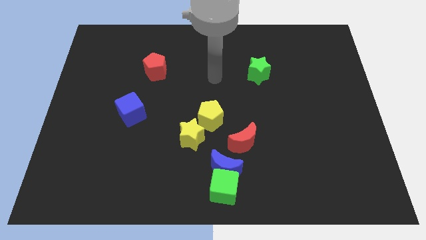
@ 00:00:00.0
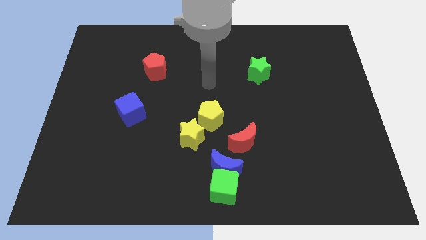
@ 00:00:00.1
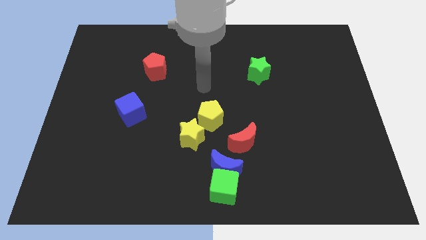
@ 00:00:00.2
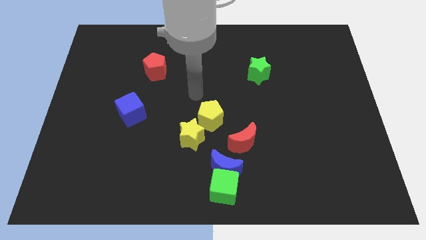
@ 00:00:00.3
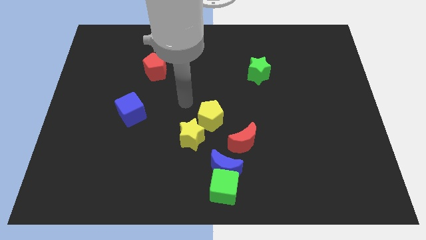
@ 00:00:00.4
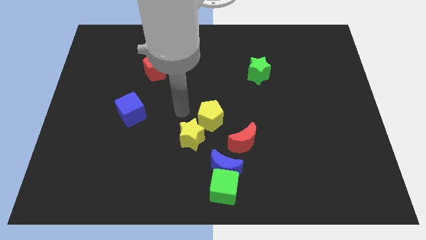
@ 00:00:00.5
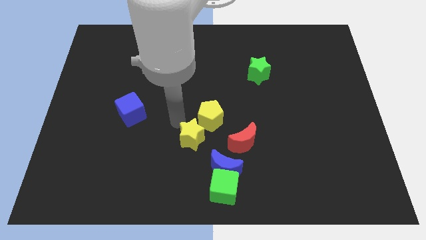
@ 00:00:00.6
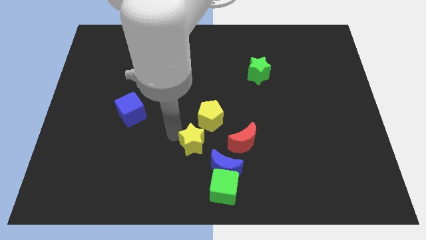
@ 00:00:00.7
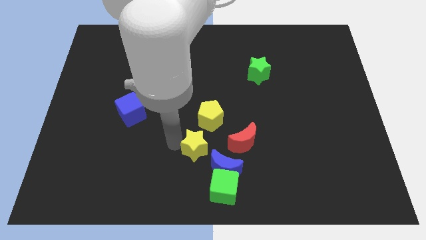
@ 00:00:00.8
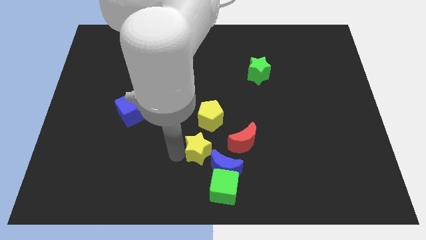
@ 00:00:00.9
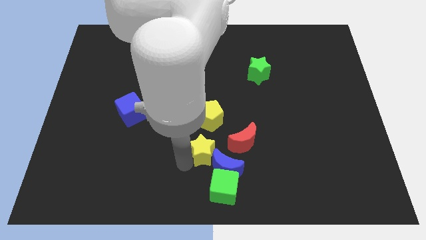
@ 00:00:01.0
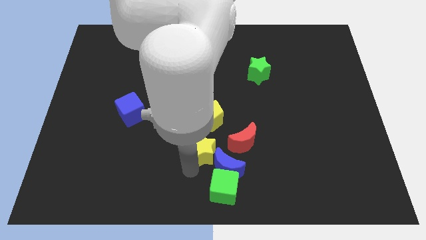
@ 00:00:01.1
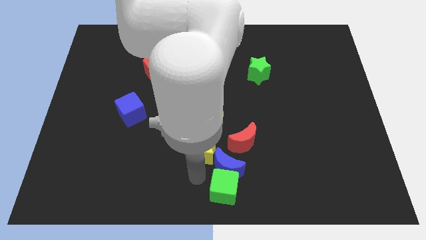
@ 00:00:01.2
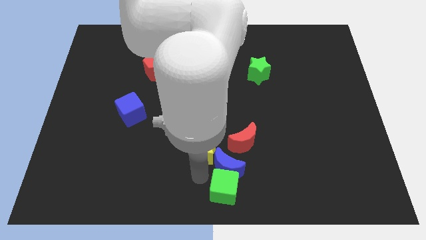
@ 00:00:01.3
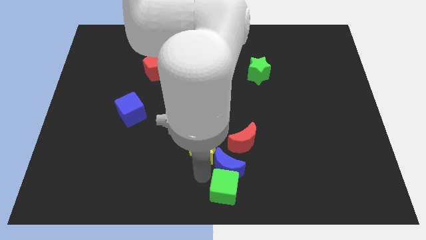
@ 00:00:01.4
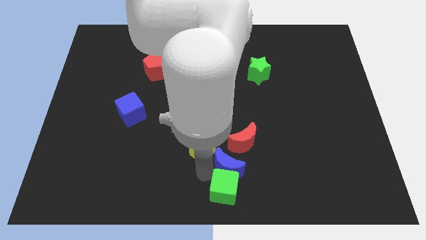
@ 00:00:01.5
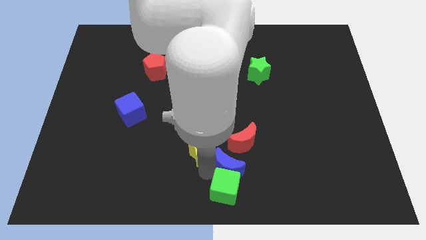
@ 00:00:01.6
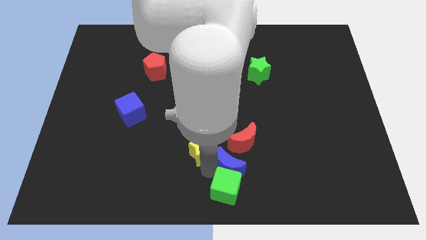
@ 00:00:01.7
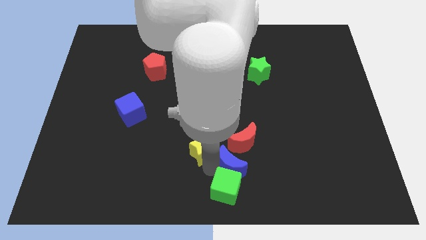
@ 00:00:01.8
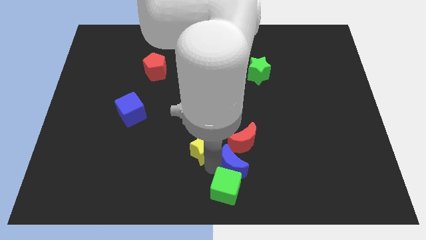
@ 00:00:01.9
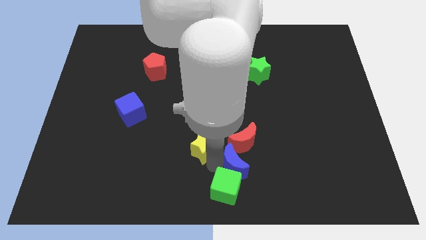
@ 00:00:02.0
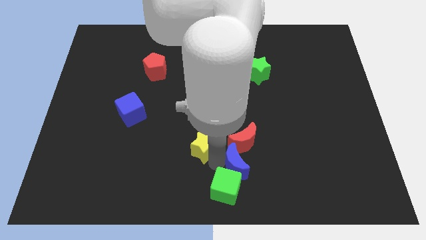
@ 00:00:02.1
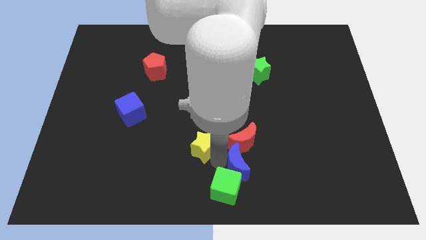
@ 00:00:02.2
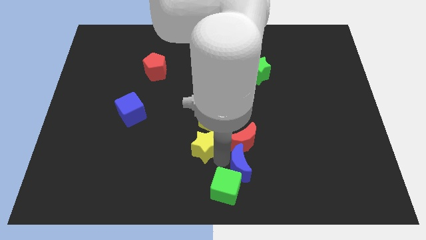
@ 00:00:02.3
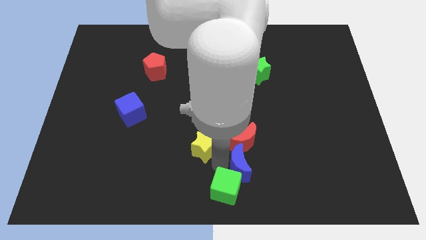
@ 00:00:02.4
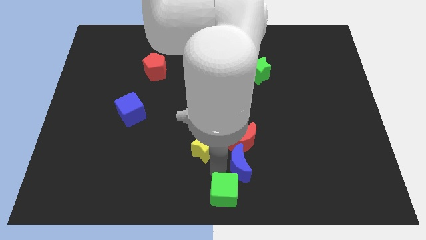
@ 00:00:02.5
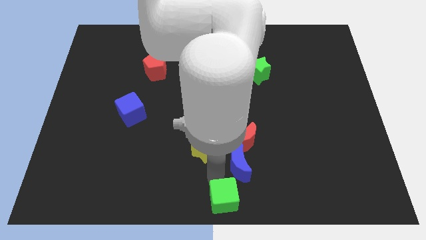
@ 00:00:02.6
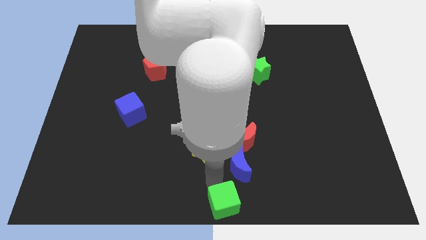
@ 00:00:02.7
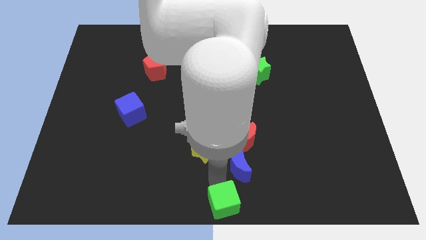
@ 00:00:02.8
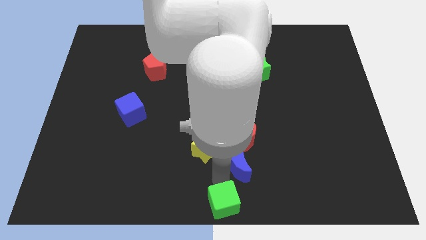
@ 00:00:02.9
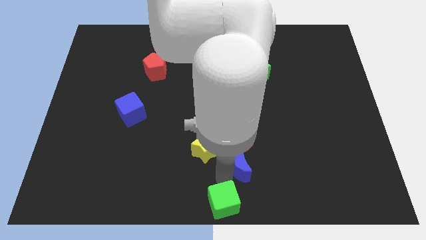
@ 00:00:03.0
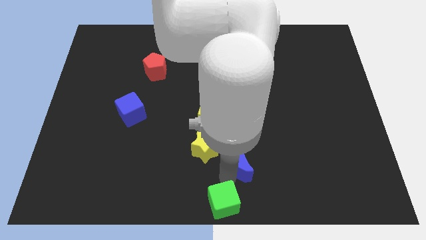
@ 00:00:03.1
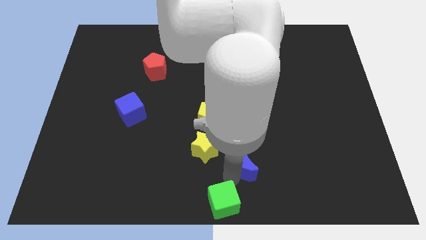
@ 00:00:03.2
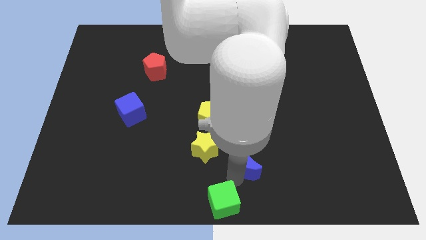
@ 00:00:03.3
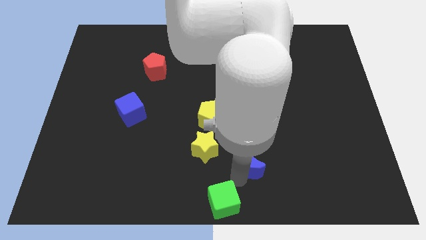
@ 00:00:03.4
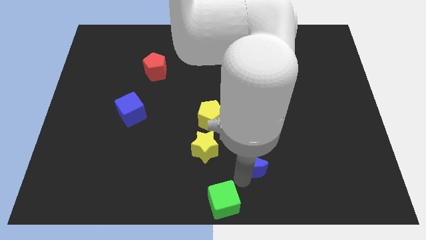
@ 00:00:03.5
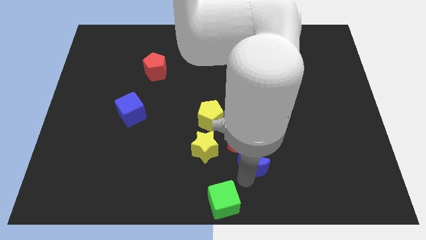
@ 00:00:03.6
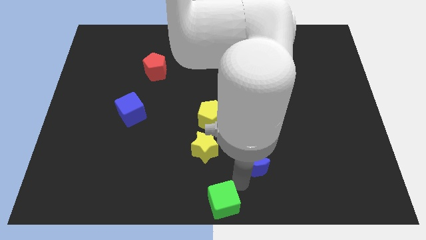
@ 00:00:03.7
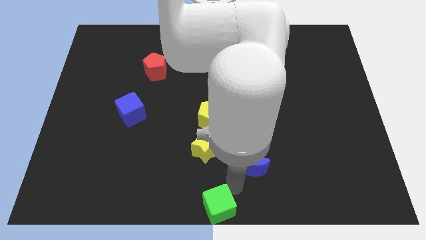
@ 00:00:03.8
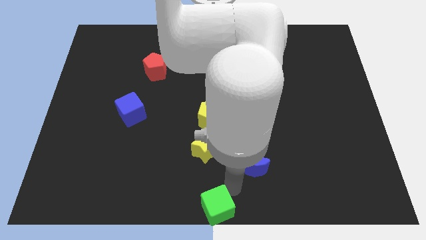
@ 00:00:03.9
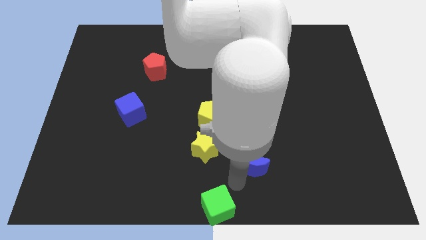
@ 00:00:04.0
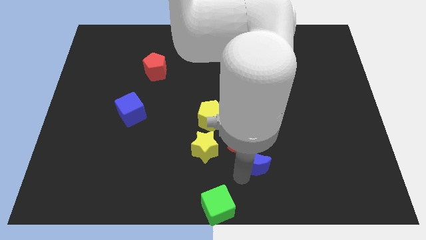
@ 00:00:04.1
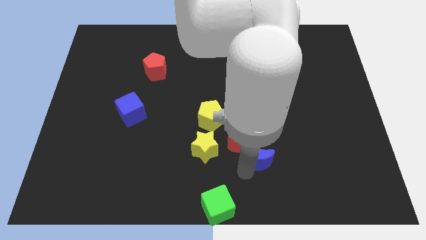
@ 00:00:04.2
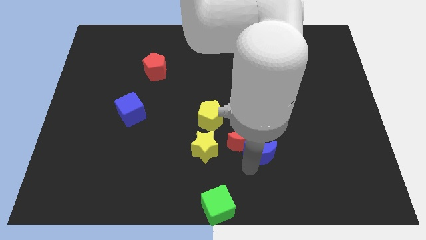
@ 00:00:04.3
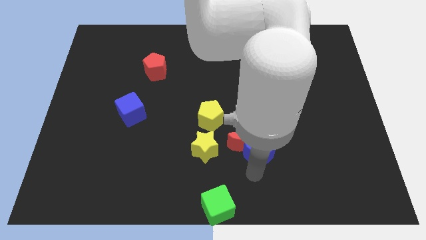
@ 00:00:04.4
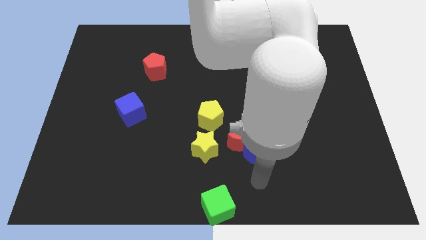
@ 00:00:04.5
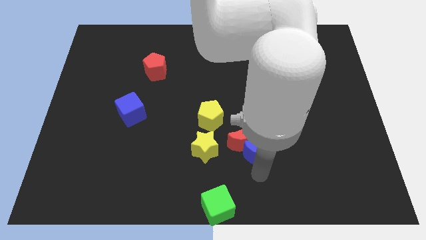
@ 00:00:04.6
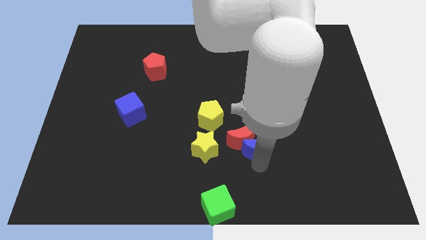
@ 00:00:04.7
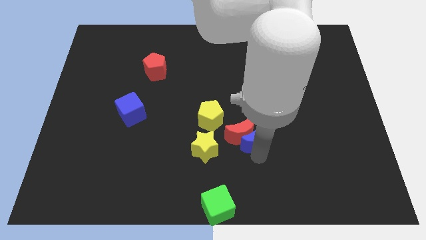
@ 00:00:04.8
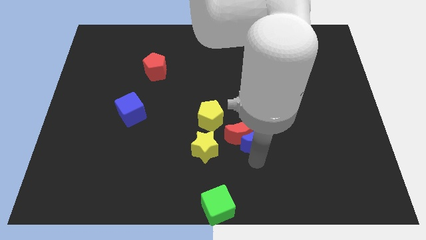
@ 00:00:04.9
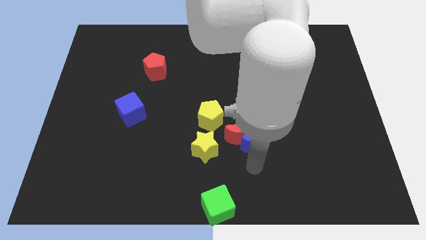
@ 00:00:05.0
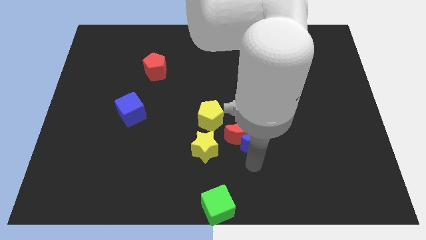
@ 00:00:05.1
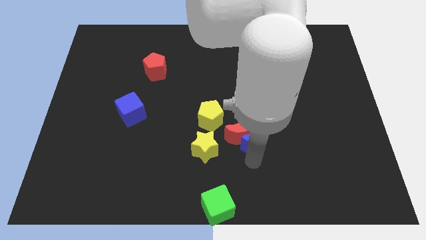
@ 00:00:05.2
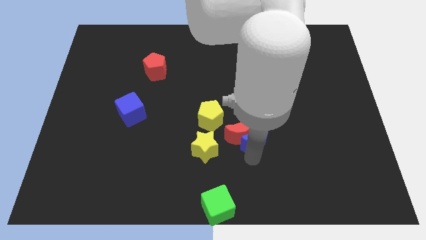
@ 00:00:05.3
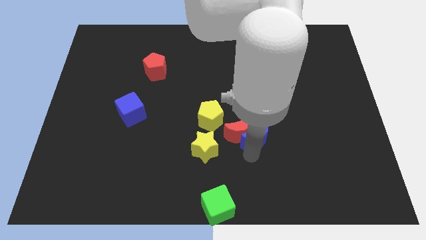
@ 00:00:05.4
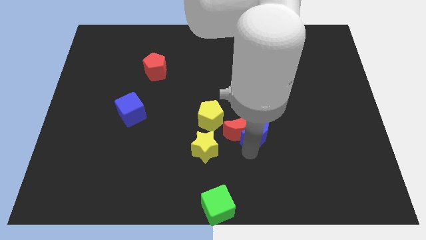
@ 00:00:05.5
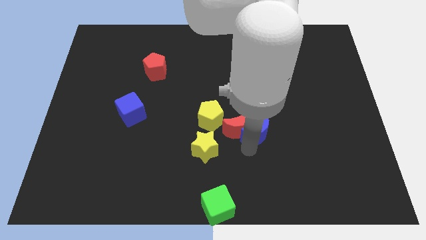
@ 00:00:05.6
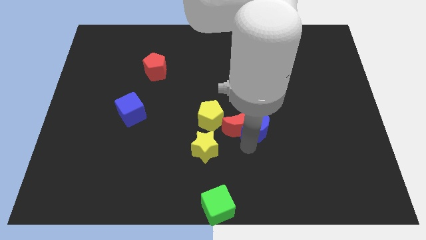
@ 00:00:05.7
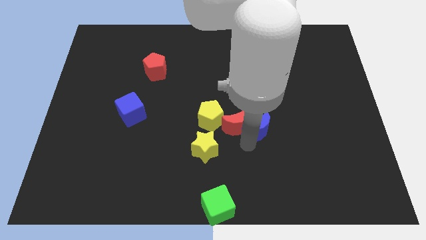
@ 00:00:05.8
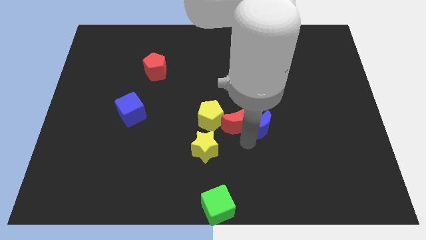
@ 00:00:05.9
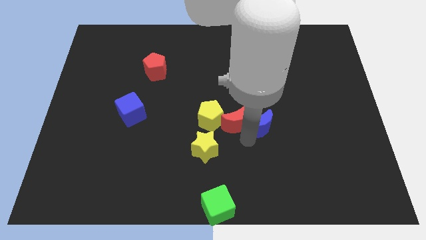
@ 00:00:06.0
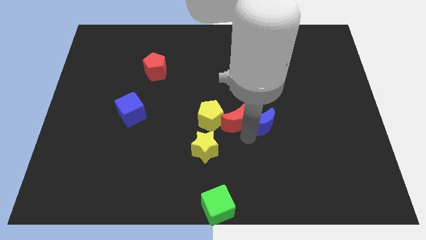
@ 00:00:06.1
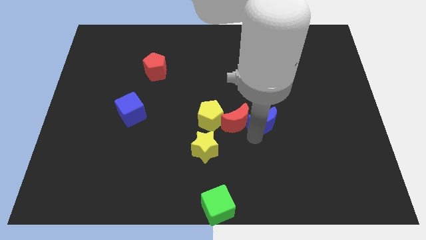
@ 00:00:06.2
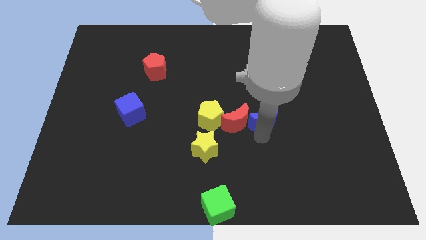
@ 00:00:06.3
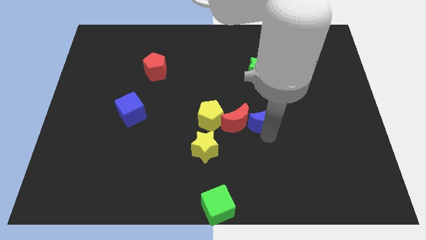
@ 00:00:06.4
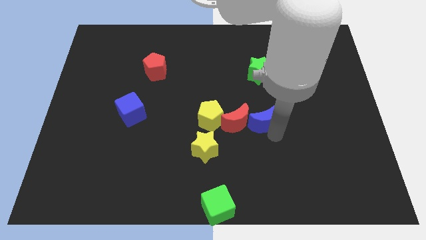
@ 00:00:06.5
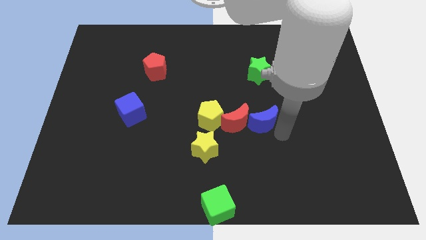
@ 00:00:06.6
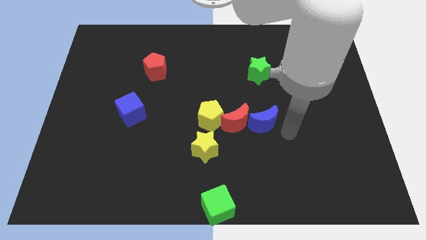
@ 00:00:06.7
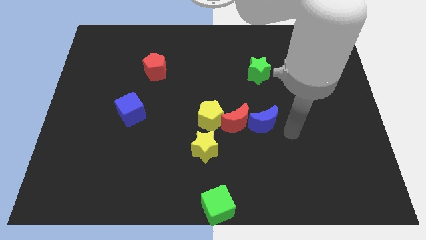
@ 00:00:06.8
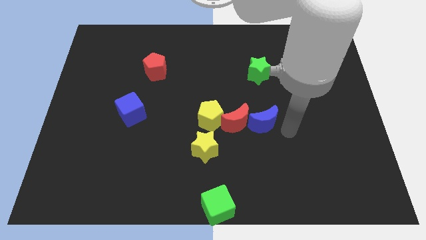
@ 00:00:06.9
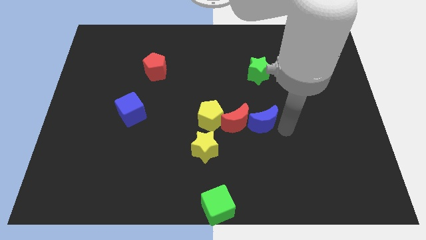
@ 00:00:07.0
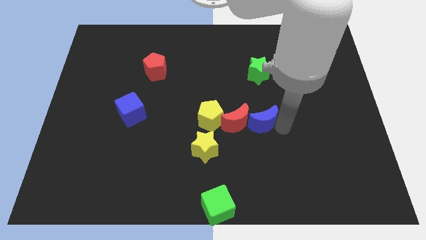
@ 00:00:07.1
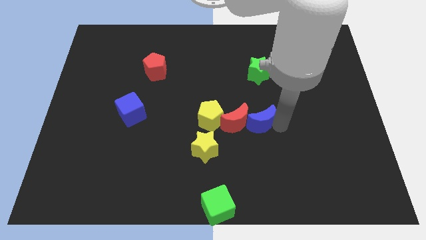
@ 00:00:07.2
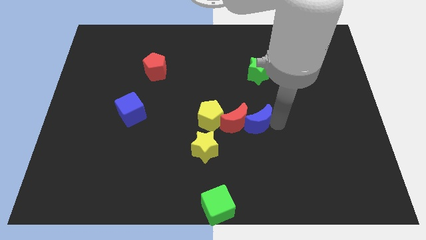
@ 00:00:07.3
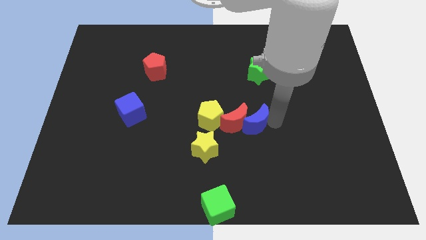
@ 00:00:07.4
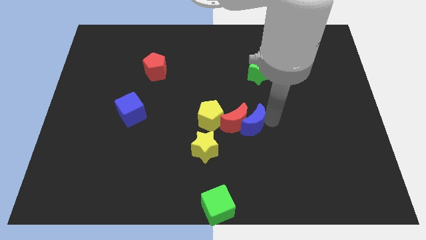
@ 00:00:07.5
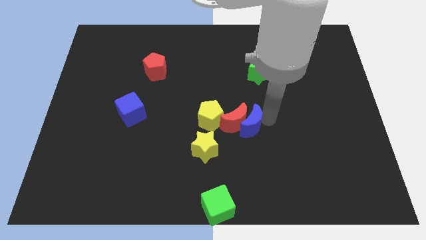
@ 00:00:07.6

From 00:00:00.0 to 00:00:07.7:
put the blue moon to the top right of the yellow star
